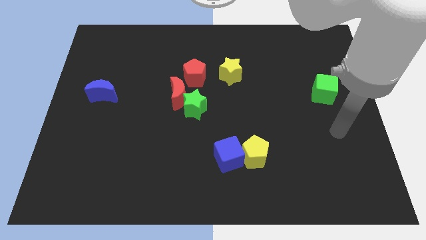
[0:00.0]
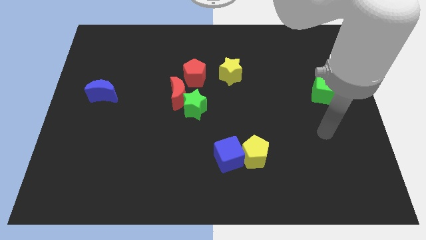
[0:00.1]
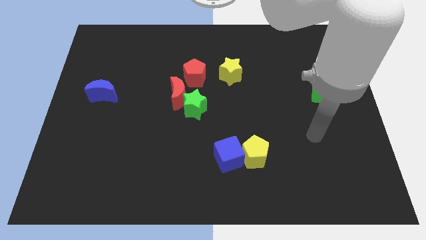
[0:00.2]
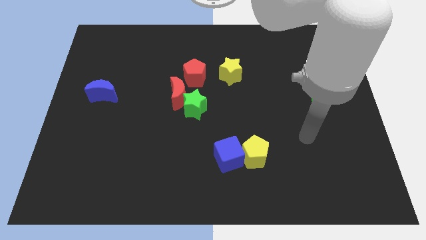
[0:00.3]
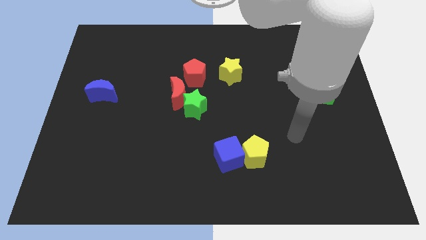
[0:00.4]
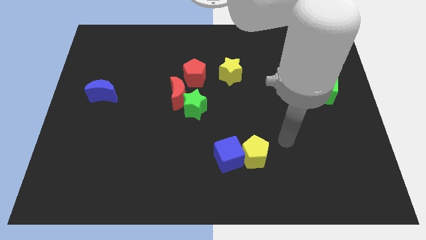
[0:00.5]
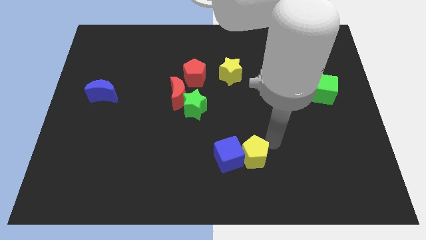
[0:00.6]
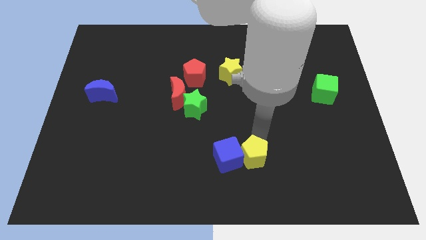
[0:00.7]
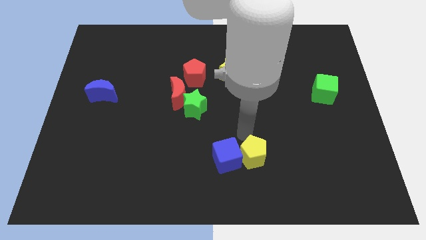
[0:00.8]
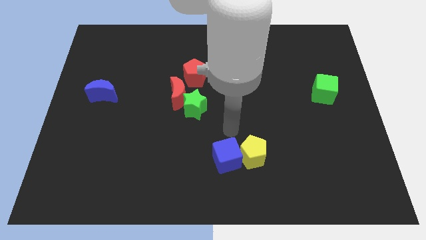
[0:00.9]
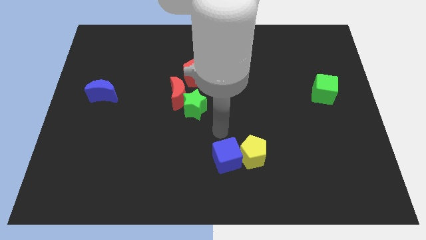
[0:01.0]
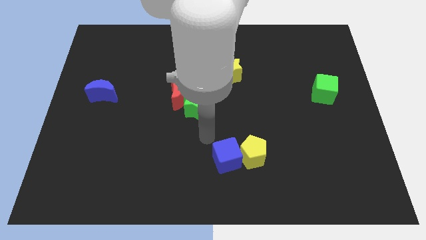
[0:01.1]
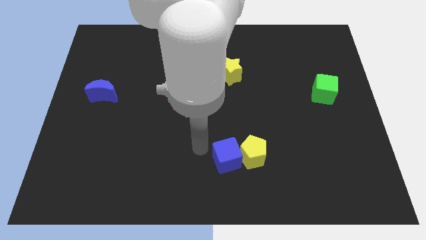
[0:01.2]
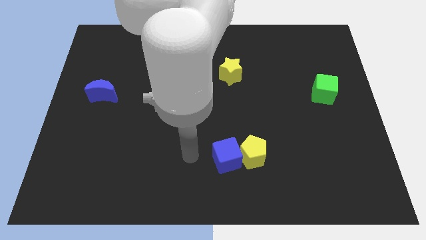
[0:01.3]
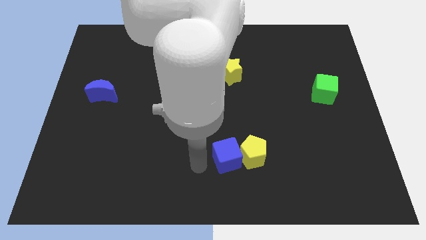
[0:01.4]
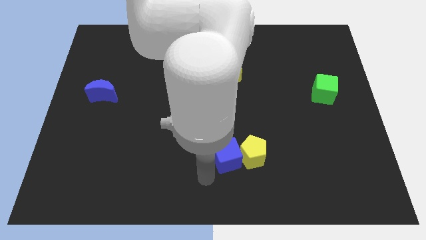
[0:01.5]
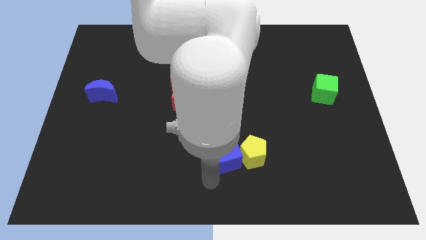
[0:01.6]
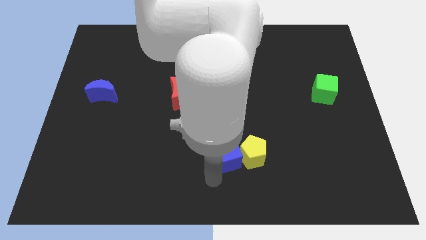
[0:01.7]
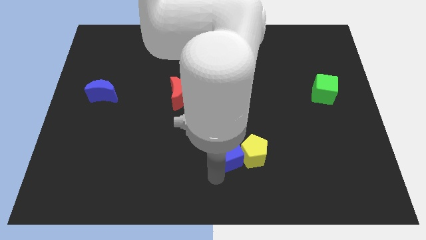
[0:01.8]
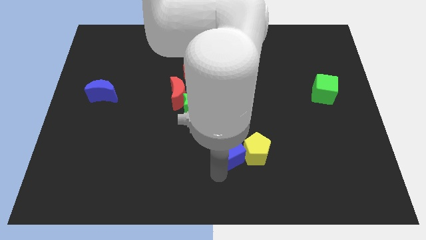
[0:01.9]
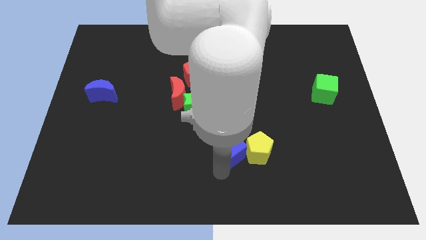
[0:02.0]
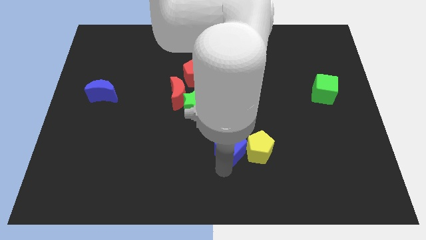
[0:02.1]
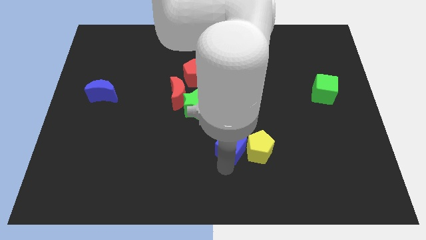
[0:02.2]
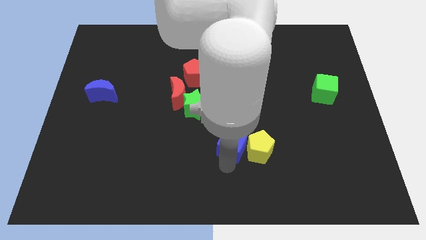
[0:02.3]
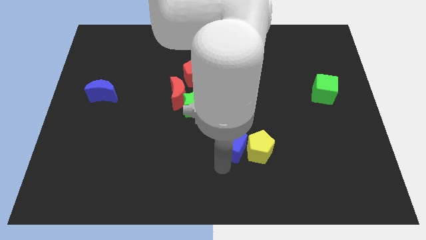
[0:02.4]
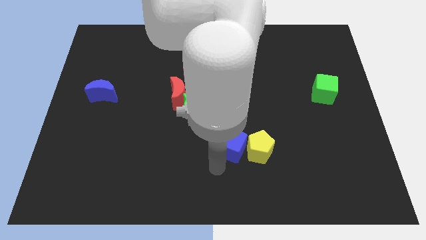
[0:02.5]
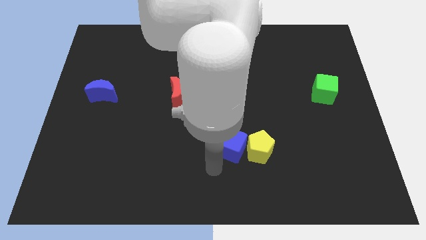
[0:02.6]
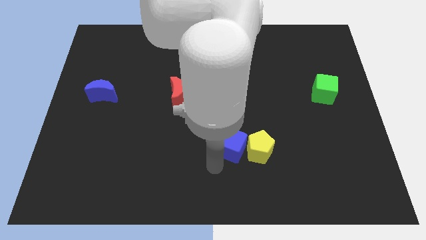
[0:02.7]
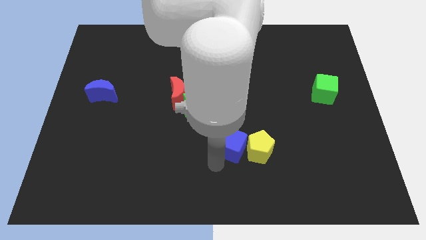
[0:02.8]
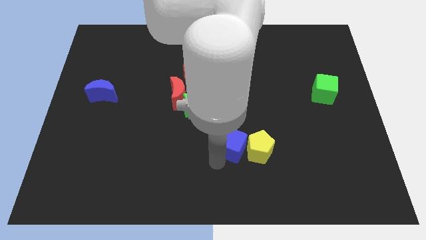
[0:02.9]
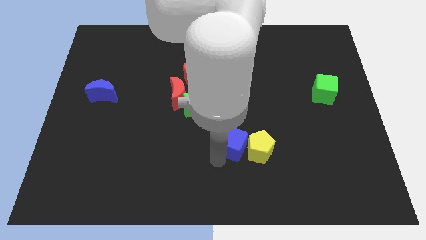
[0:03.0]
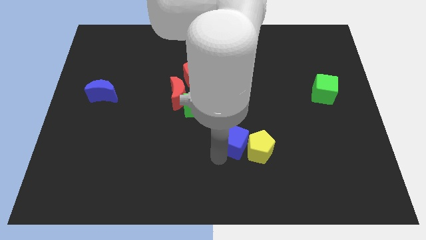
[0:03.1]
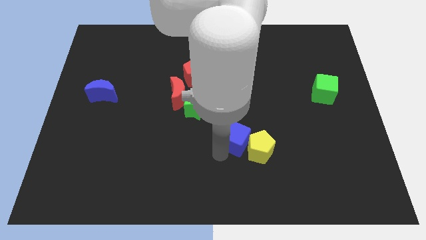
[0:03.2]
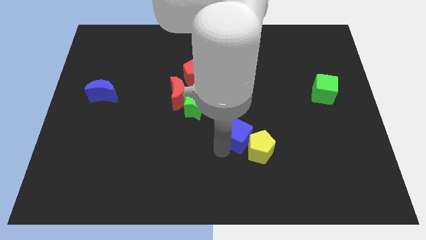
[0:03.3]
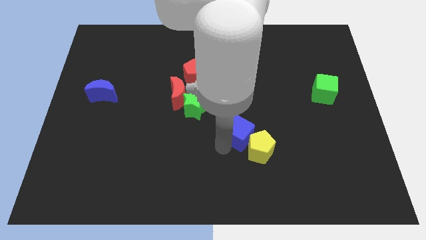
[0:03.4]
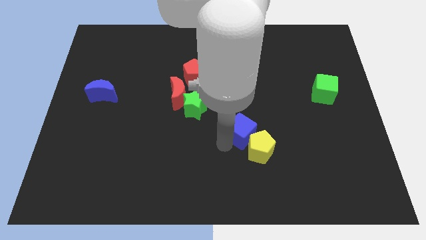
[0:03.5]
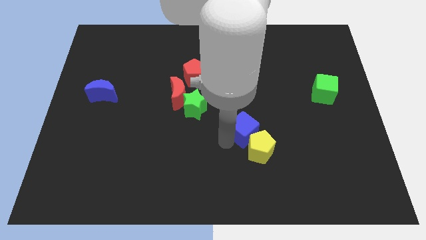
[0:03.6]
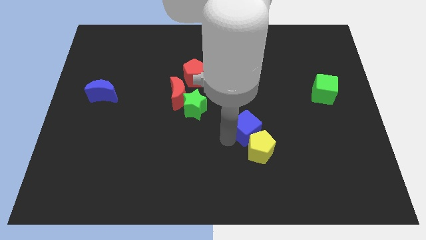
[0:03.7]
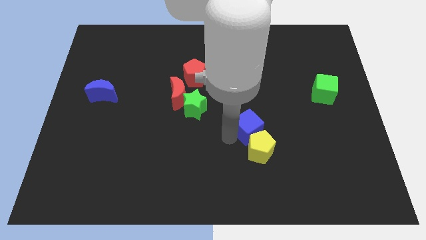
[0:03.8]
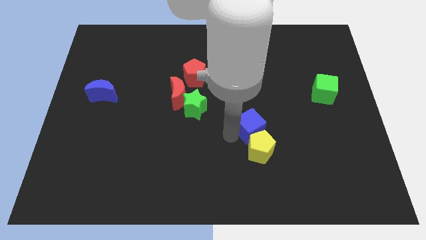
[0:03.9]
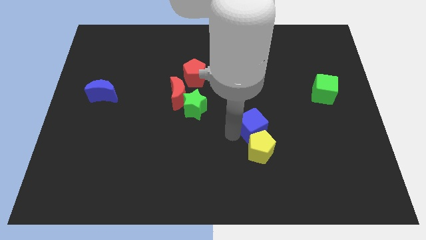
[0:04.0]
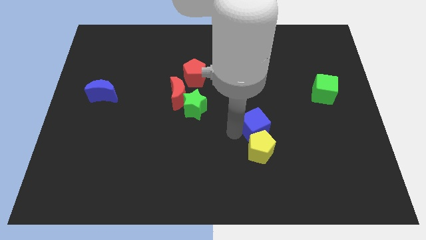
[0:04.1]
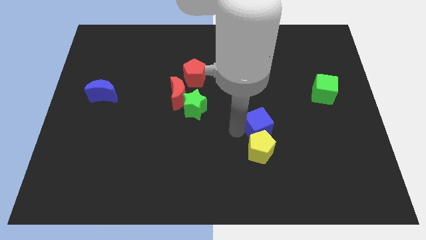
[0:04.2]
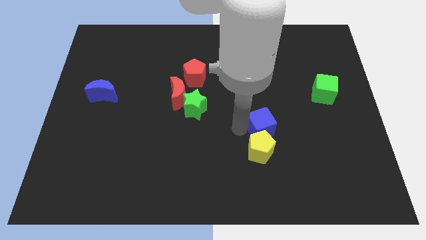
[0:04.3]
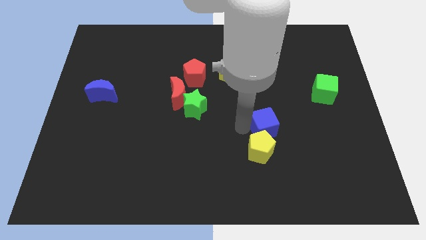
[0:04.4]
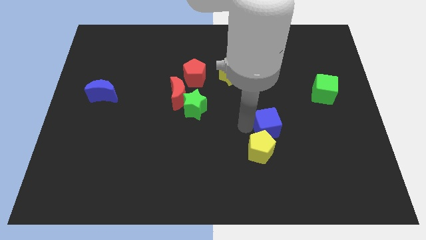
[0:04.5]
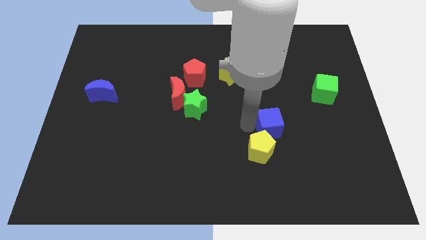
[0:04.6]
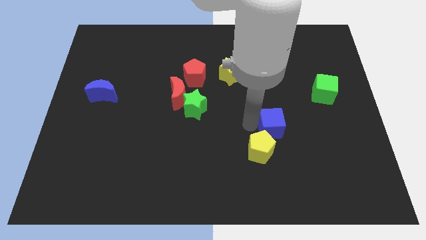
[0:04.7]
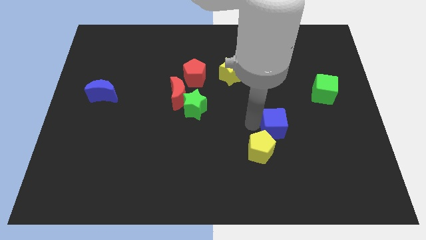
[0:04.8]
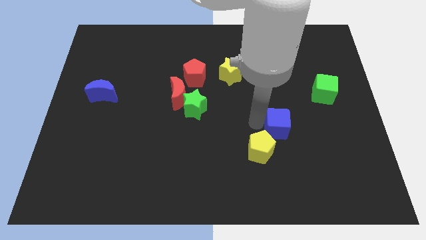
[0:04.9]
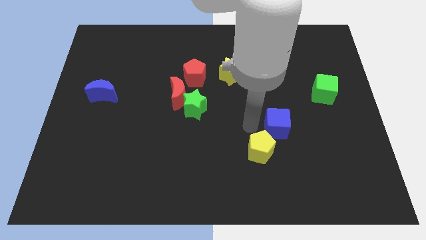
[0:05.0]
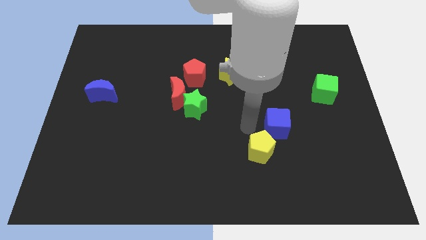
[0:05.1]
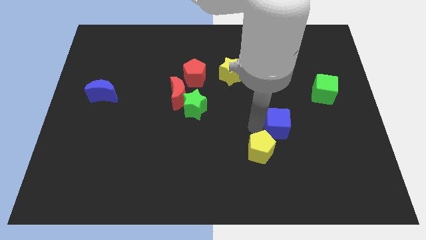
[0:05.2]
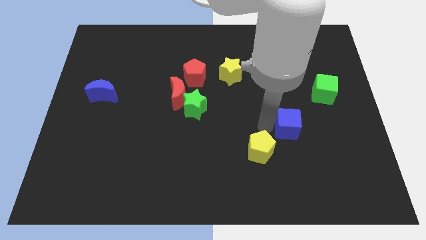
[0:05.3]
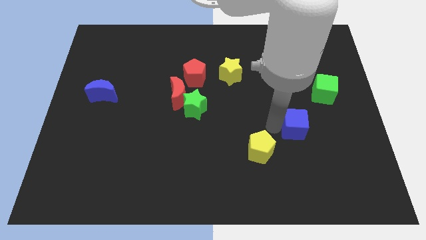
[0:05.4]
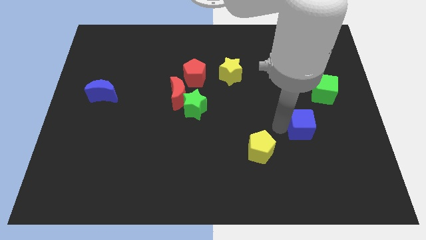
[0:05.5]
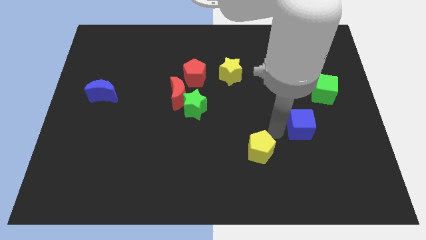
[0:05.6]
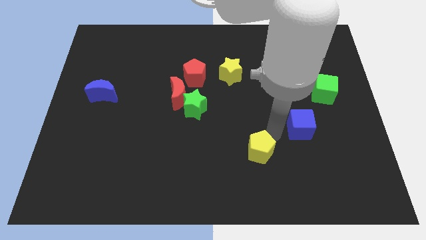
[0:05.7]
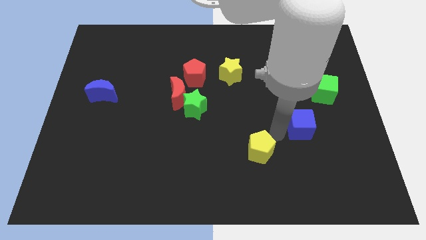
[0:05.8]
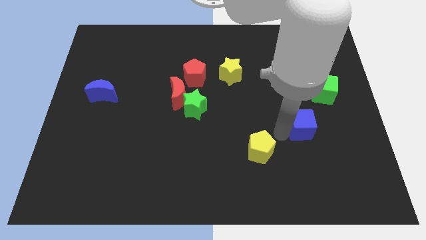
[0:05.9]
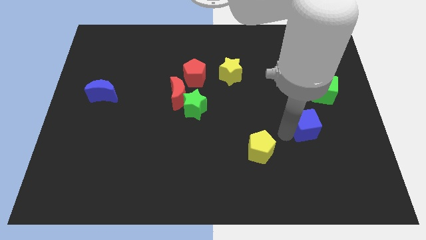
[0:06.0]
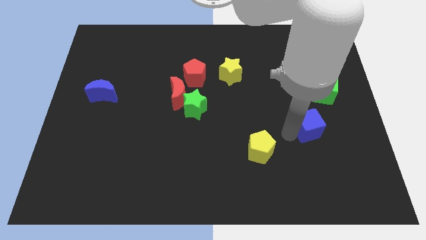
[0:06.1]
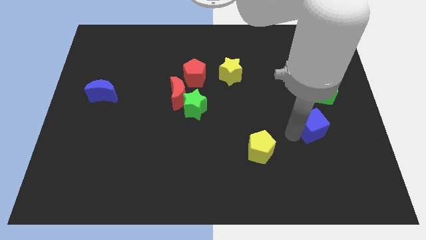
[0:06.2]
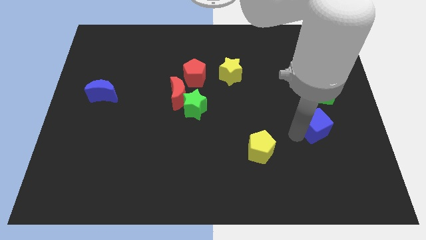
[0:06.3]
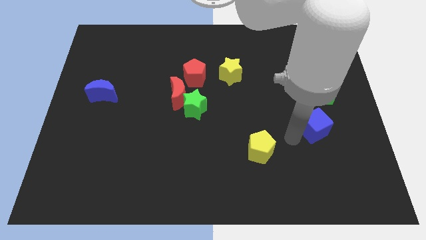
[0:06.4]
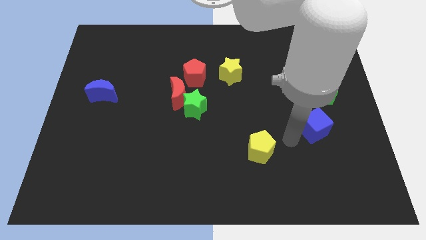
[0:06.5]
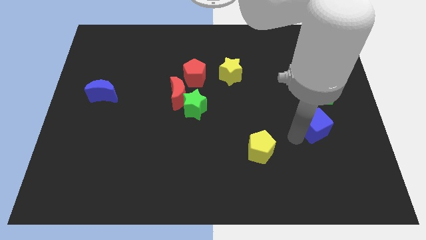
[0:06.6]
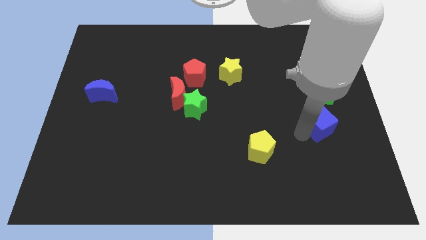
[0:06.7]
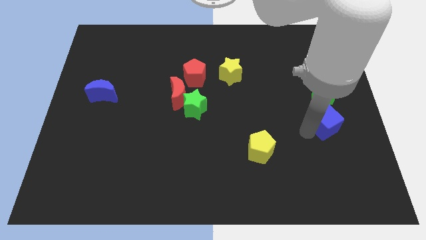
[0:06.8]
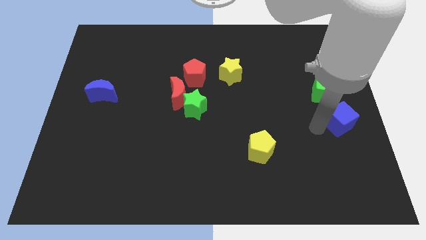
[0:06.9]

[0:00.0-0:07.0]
put the blue cube to the center right
